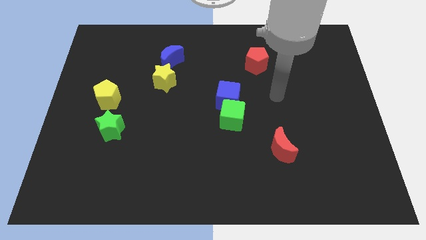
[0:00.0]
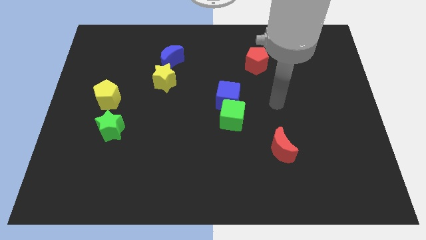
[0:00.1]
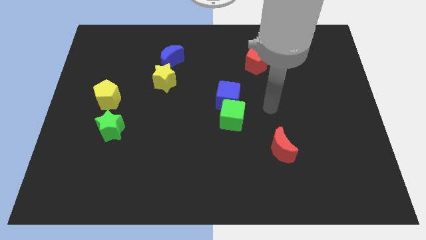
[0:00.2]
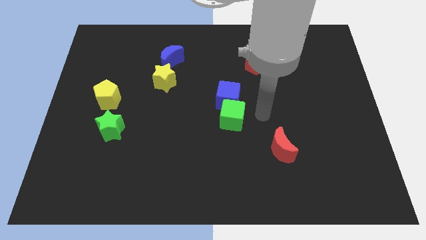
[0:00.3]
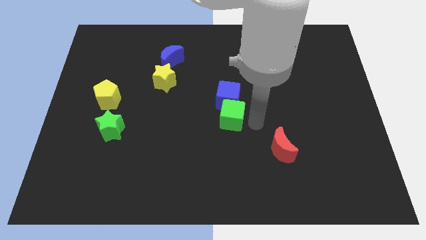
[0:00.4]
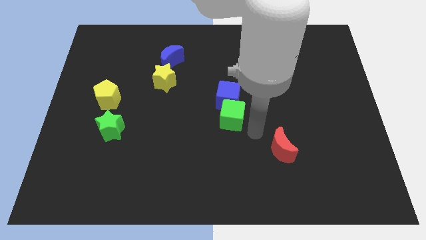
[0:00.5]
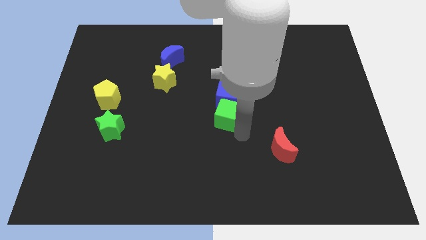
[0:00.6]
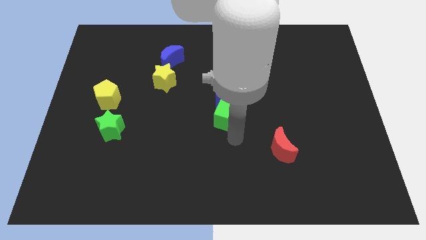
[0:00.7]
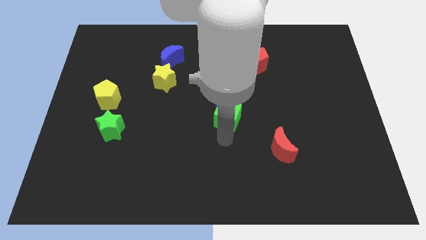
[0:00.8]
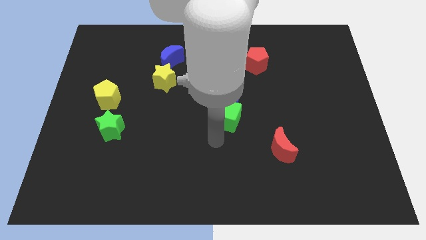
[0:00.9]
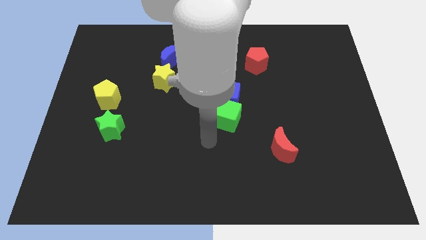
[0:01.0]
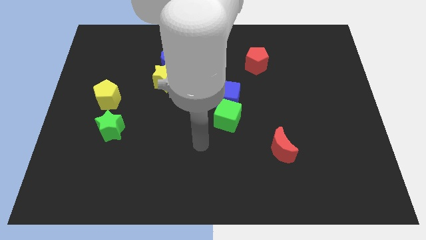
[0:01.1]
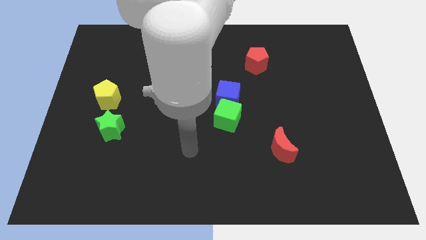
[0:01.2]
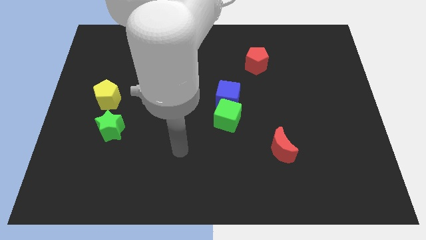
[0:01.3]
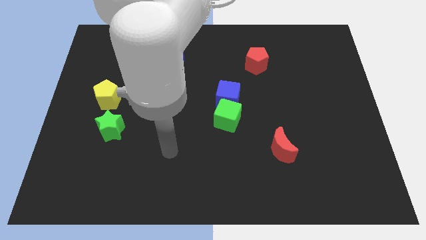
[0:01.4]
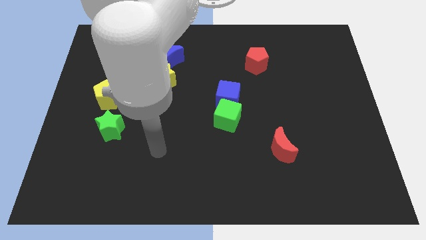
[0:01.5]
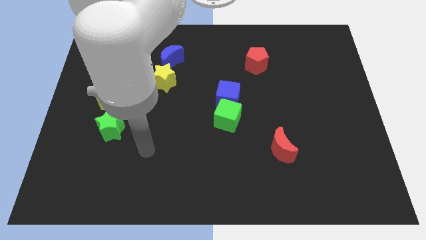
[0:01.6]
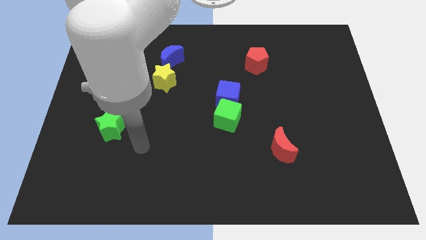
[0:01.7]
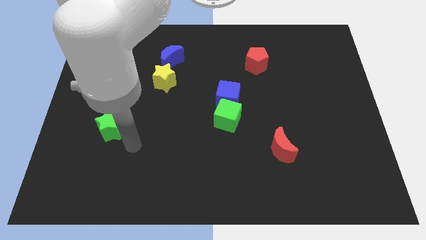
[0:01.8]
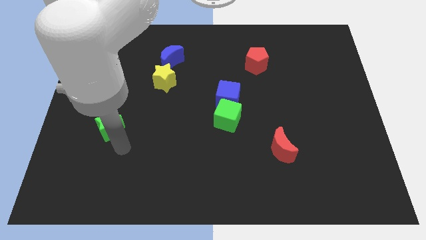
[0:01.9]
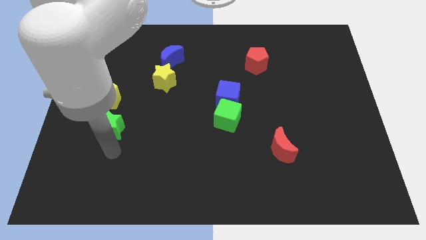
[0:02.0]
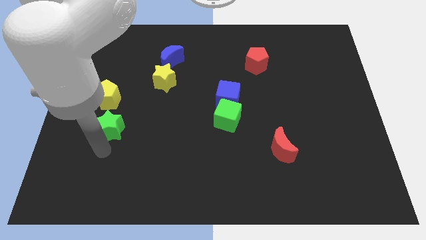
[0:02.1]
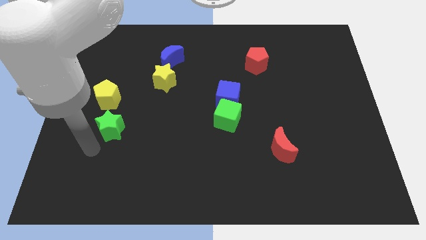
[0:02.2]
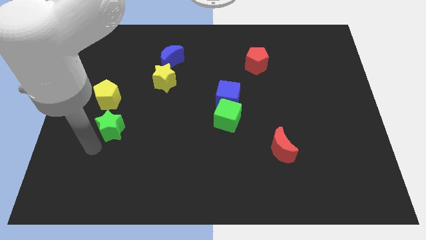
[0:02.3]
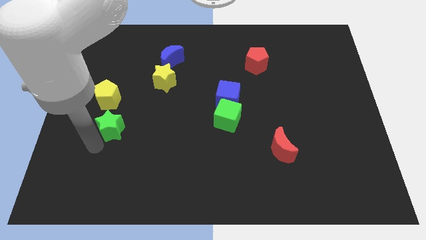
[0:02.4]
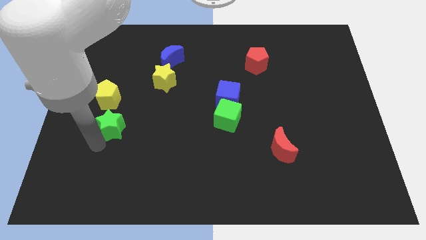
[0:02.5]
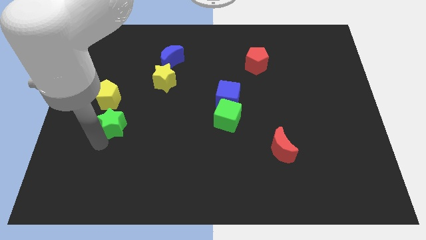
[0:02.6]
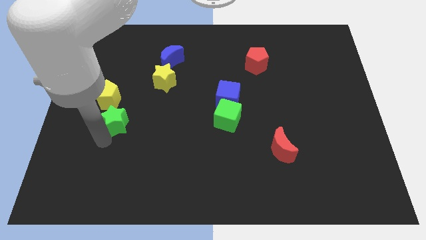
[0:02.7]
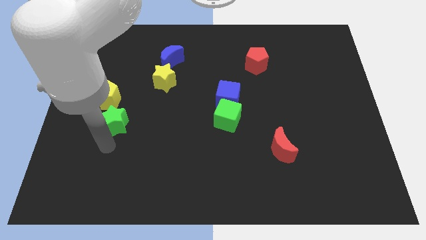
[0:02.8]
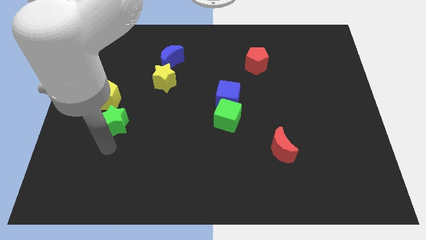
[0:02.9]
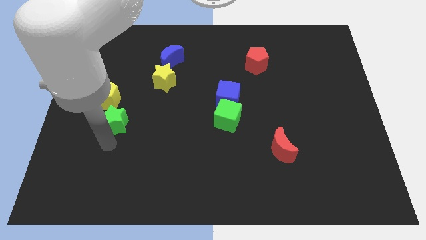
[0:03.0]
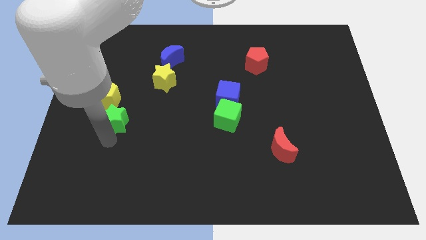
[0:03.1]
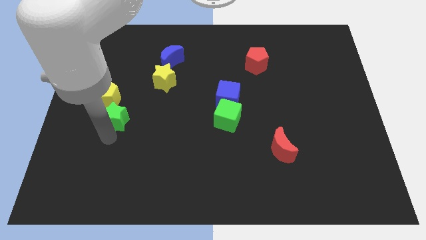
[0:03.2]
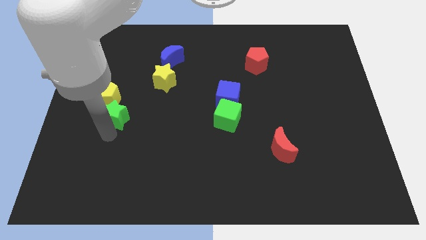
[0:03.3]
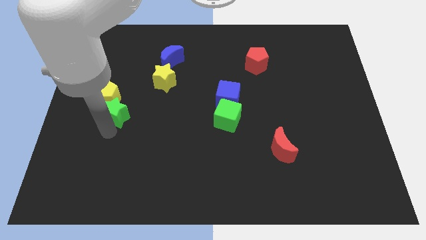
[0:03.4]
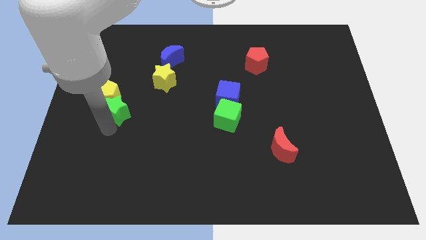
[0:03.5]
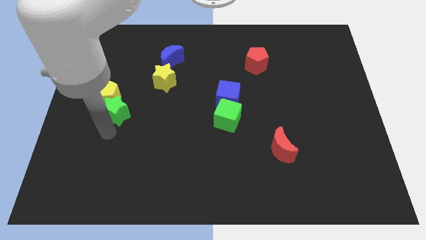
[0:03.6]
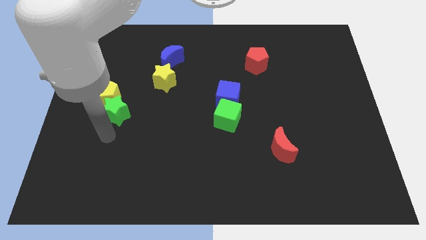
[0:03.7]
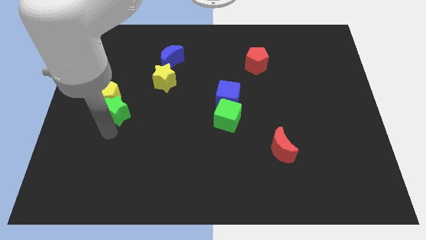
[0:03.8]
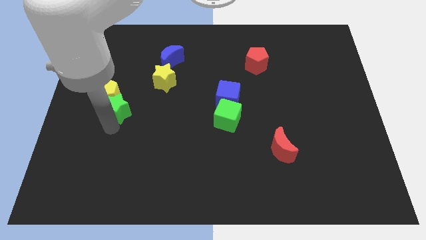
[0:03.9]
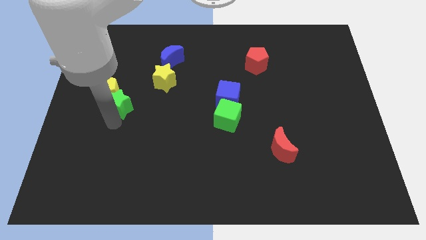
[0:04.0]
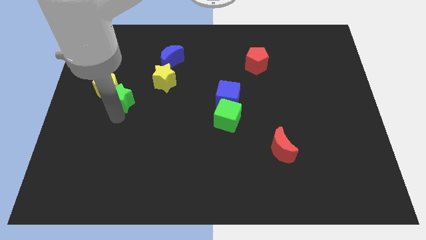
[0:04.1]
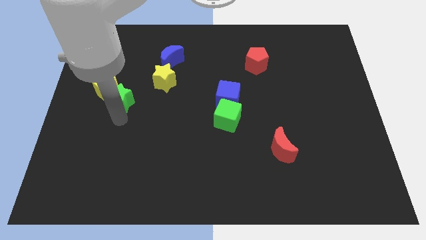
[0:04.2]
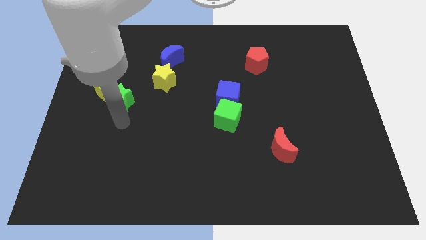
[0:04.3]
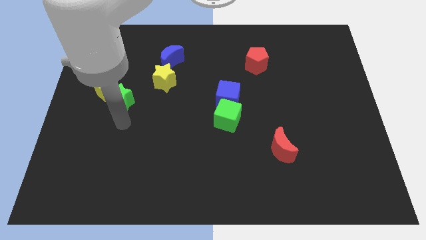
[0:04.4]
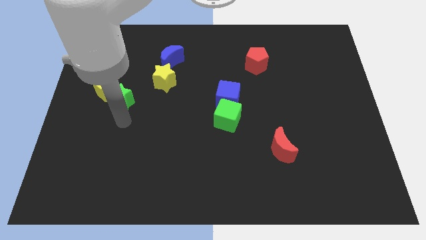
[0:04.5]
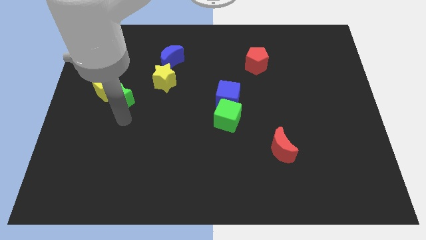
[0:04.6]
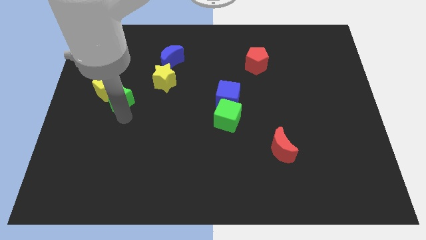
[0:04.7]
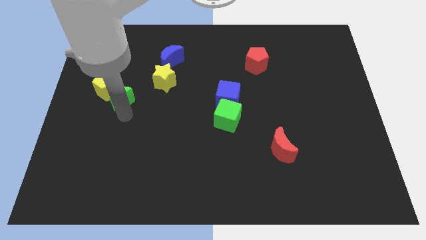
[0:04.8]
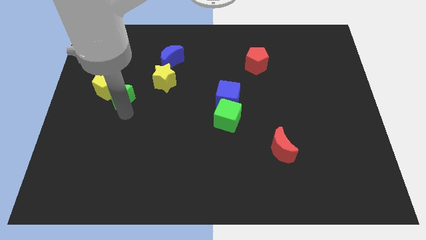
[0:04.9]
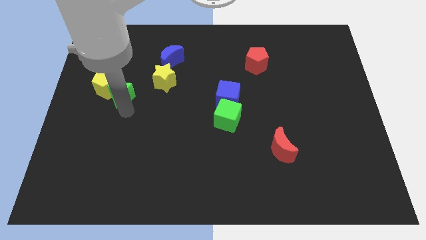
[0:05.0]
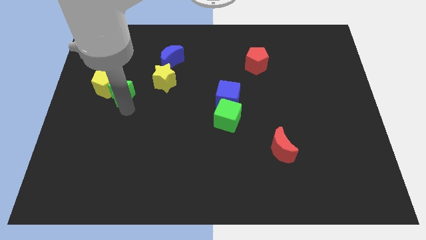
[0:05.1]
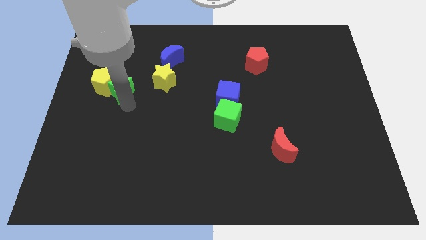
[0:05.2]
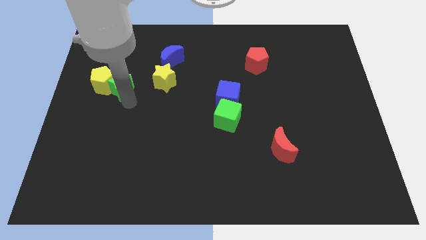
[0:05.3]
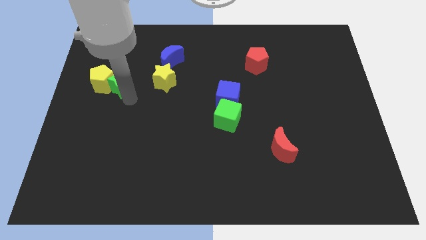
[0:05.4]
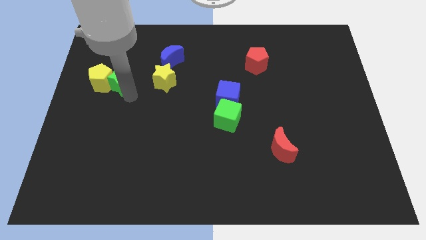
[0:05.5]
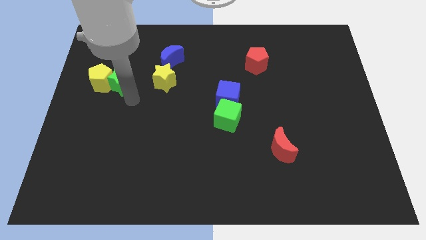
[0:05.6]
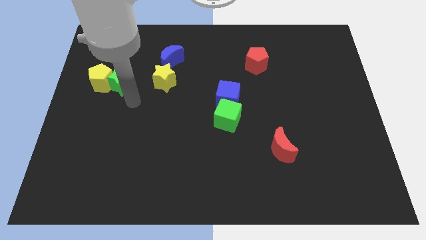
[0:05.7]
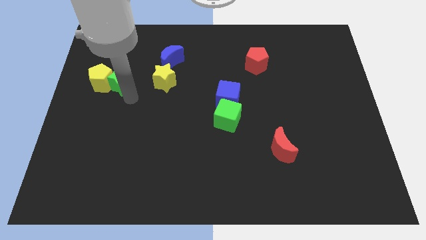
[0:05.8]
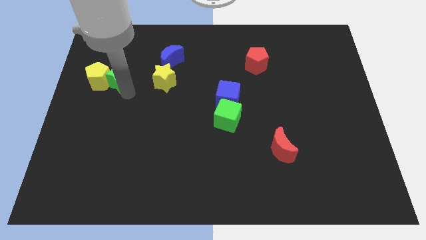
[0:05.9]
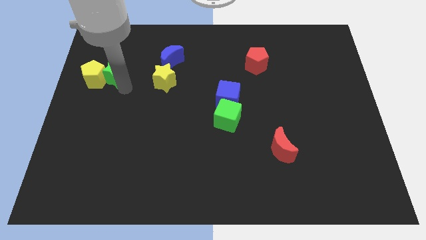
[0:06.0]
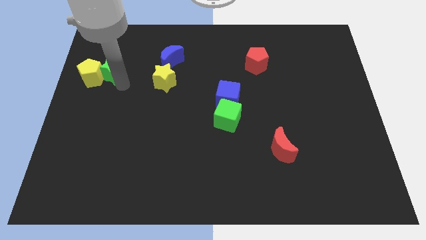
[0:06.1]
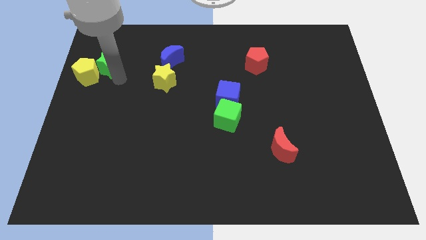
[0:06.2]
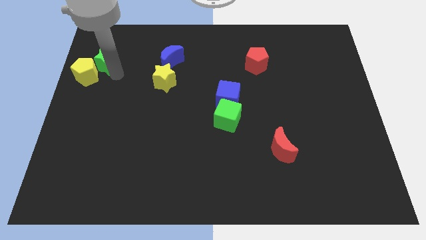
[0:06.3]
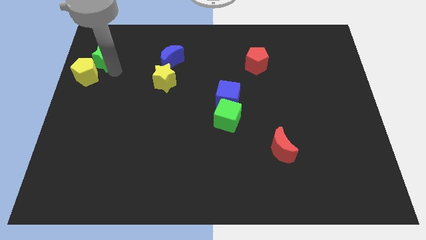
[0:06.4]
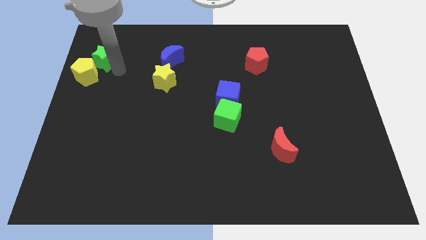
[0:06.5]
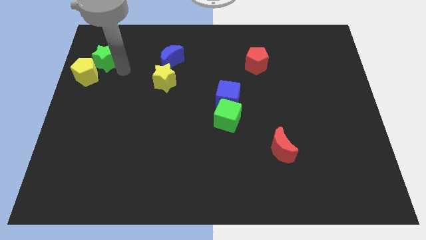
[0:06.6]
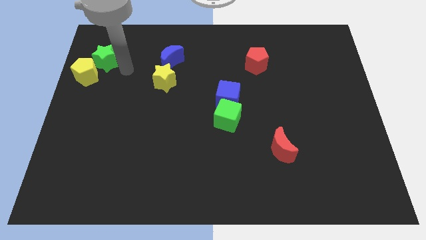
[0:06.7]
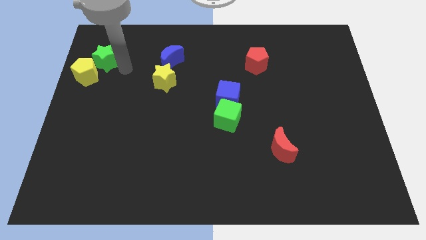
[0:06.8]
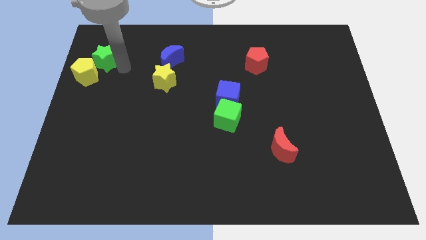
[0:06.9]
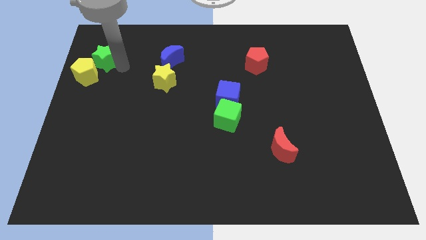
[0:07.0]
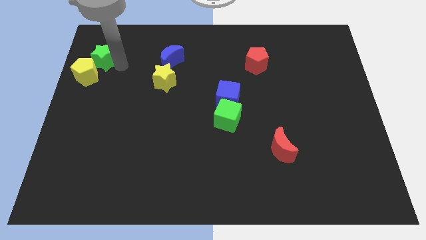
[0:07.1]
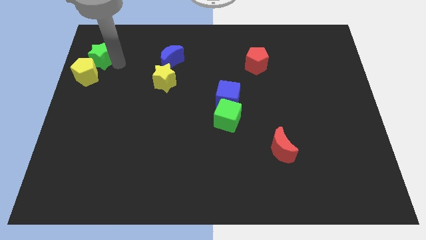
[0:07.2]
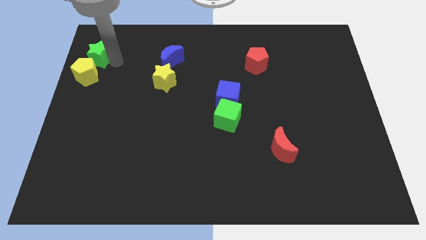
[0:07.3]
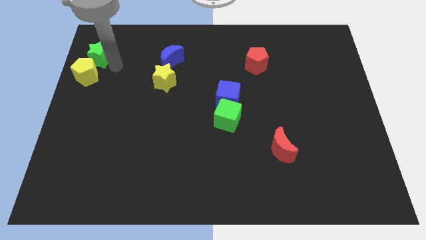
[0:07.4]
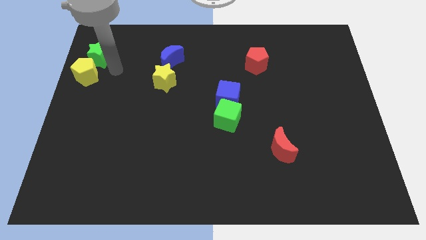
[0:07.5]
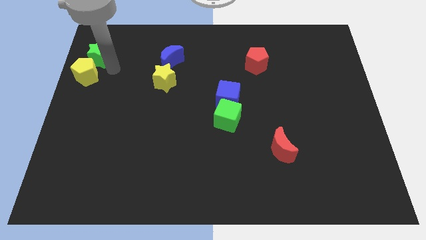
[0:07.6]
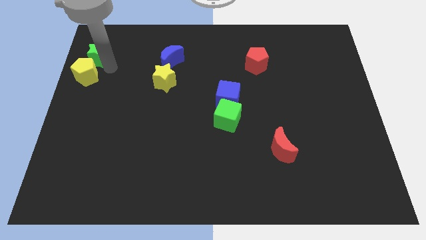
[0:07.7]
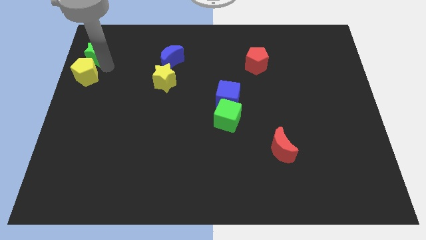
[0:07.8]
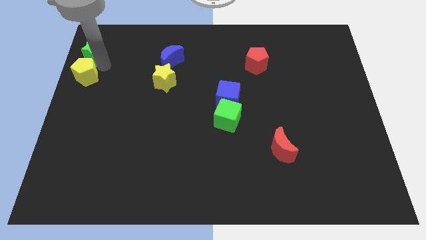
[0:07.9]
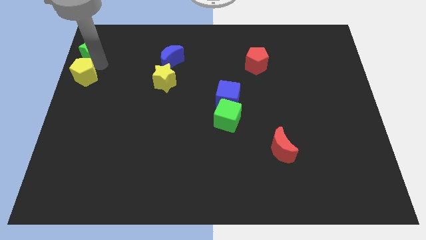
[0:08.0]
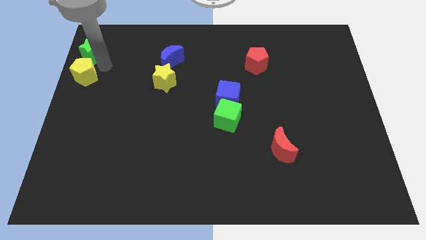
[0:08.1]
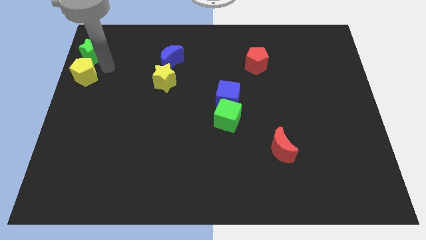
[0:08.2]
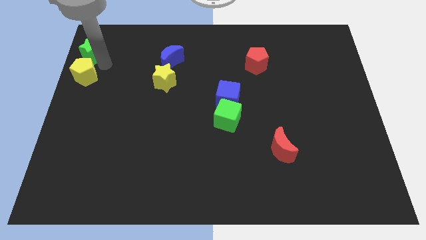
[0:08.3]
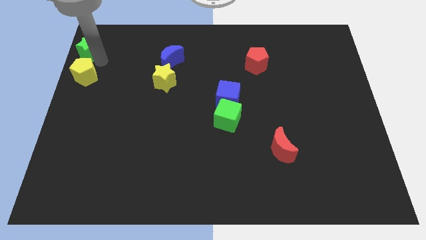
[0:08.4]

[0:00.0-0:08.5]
put the green star to the top left corner
